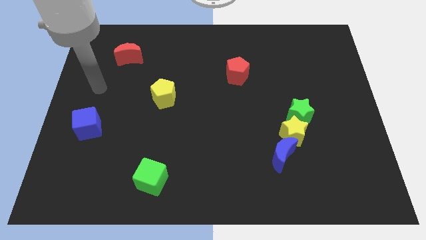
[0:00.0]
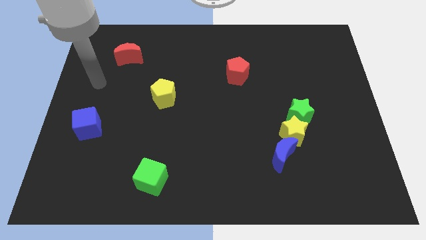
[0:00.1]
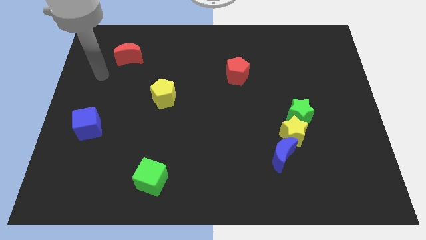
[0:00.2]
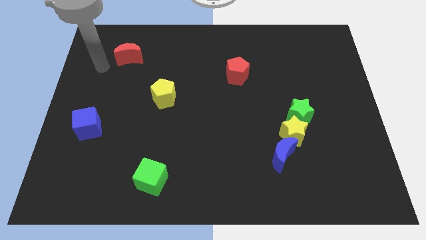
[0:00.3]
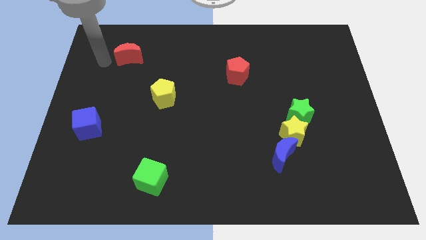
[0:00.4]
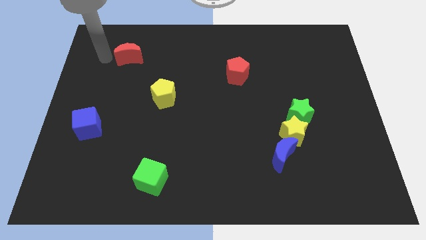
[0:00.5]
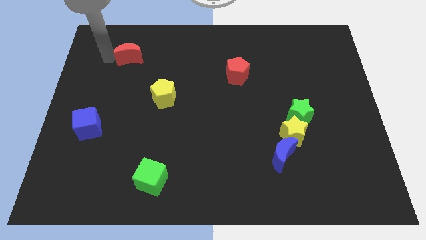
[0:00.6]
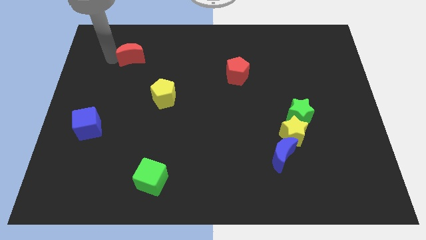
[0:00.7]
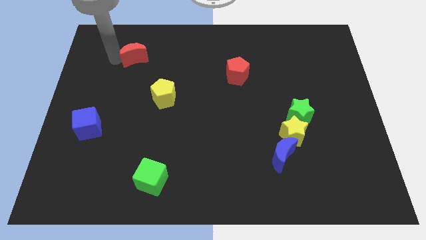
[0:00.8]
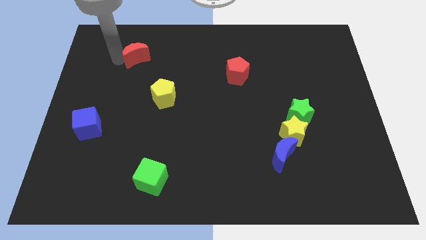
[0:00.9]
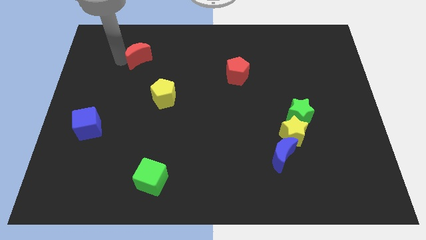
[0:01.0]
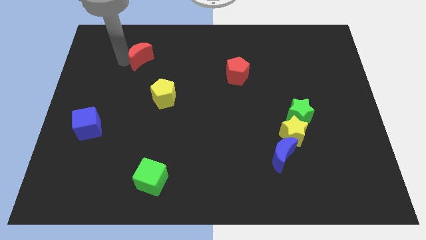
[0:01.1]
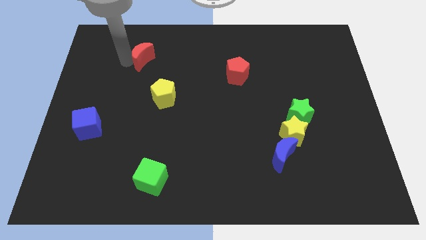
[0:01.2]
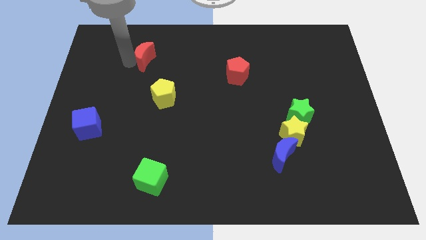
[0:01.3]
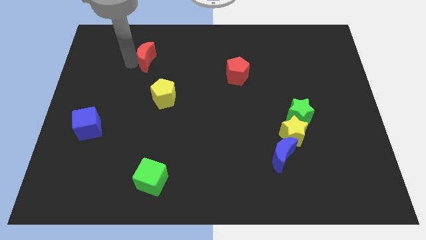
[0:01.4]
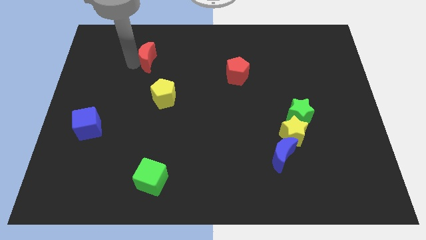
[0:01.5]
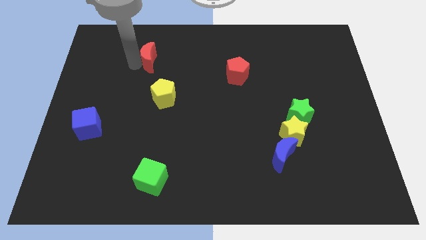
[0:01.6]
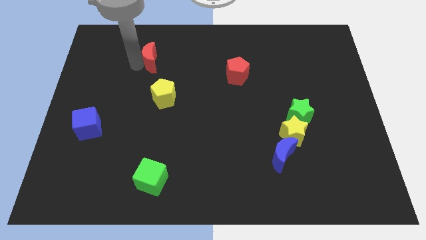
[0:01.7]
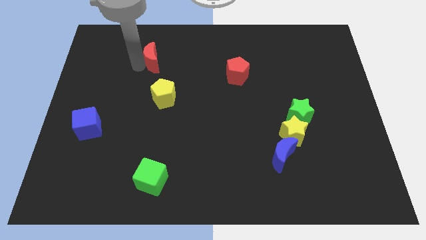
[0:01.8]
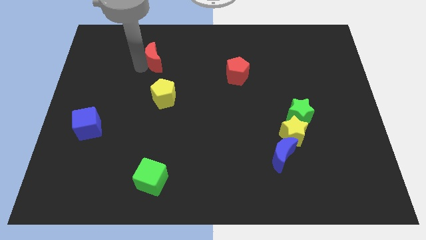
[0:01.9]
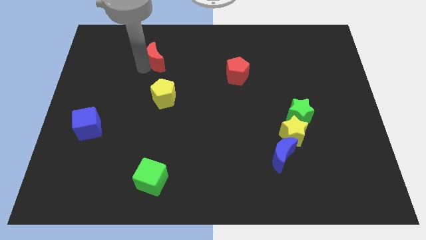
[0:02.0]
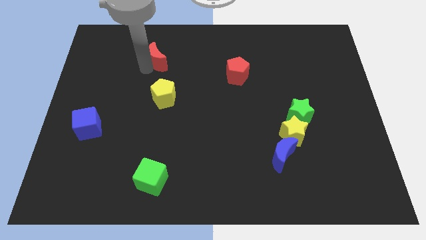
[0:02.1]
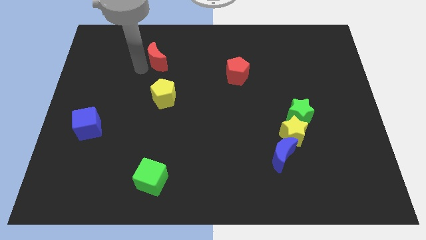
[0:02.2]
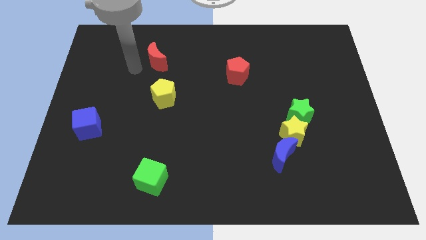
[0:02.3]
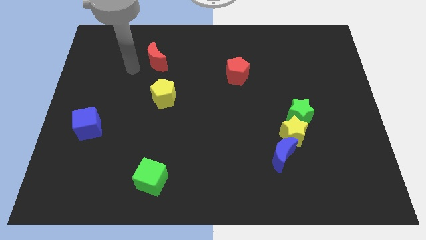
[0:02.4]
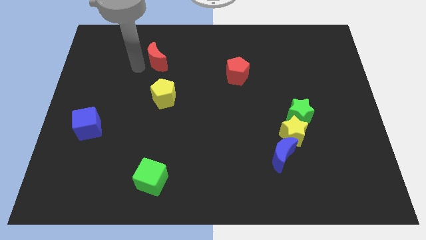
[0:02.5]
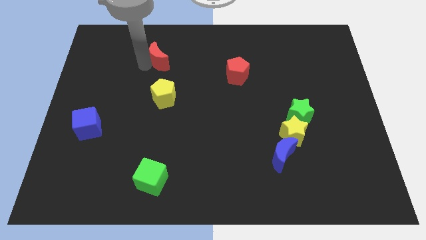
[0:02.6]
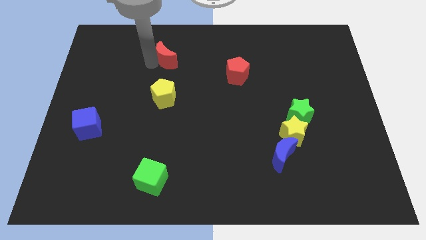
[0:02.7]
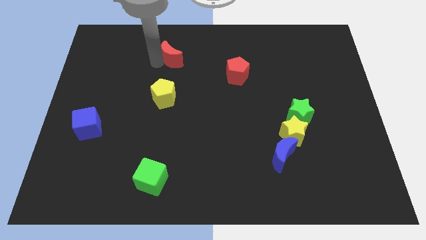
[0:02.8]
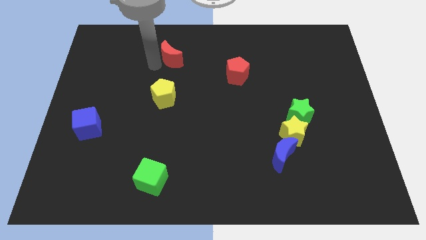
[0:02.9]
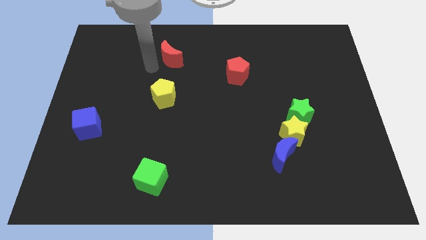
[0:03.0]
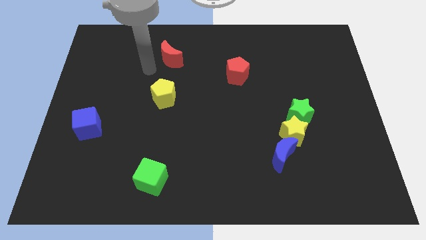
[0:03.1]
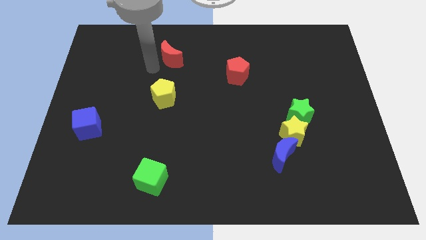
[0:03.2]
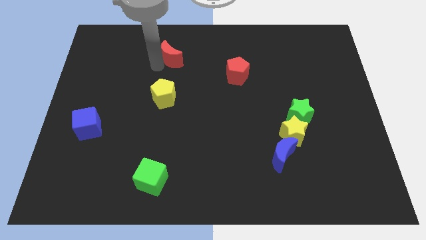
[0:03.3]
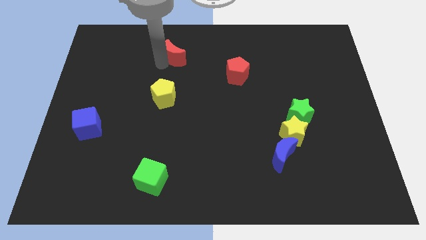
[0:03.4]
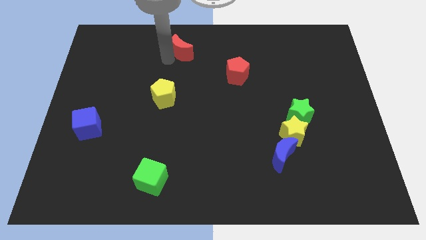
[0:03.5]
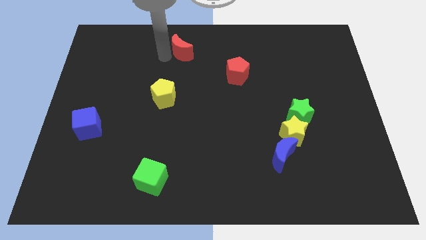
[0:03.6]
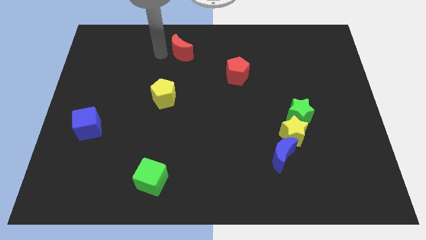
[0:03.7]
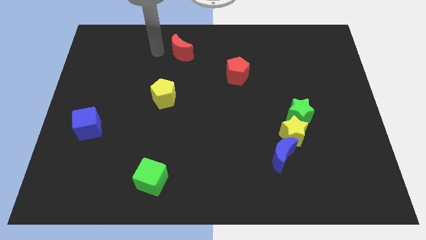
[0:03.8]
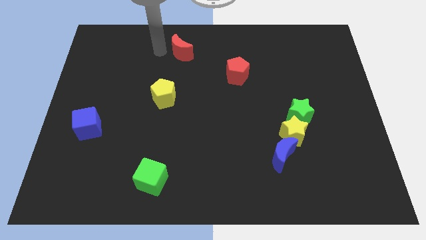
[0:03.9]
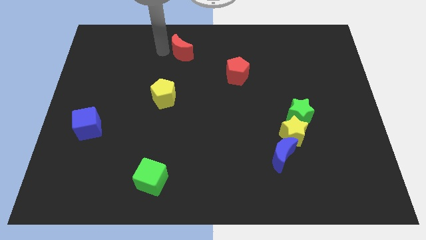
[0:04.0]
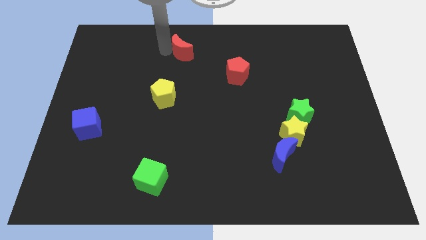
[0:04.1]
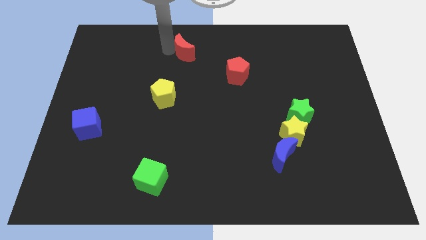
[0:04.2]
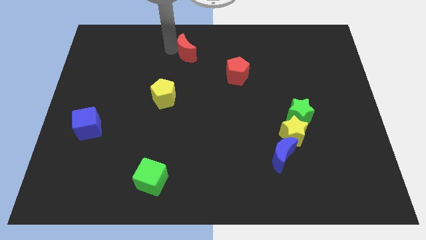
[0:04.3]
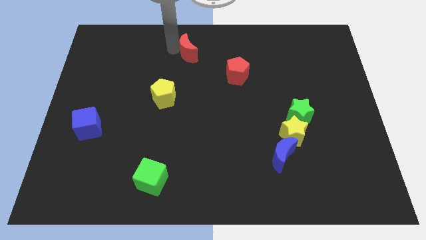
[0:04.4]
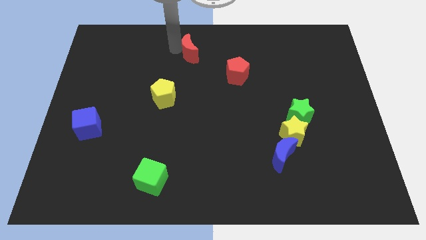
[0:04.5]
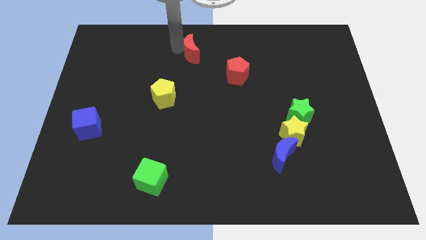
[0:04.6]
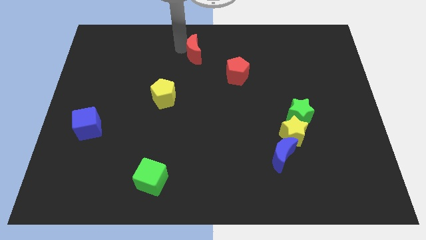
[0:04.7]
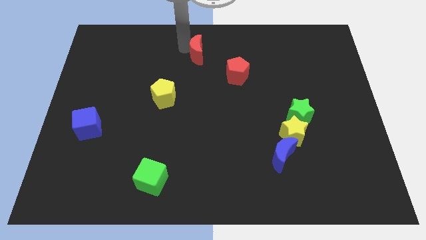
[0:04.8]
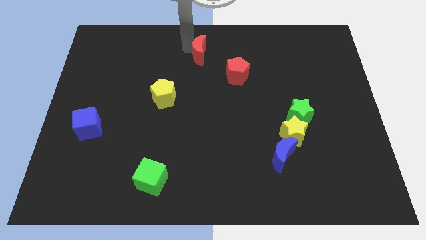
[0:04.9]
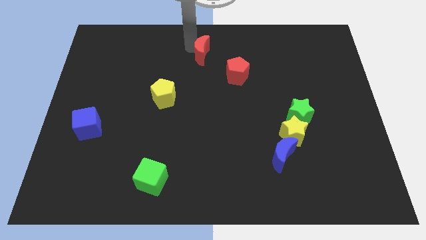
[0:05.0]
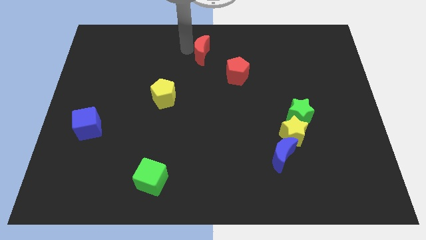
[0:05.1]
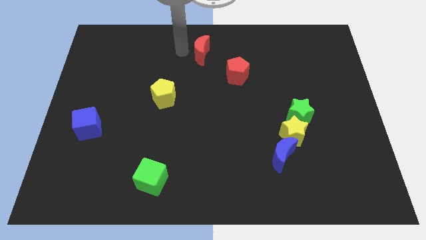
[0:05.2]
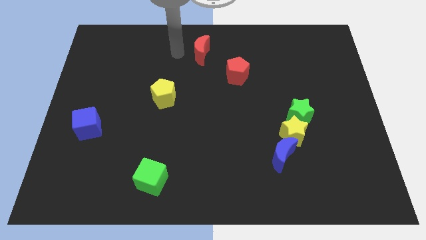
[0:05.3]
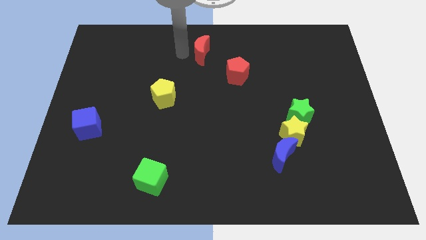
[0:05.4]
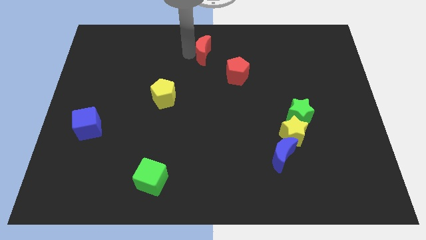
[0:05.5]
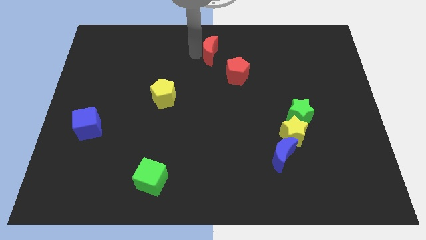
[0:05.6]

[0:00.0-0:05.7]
push the red moon right

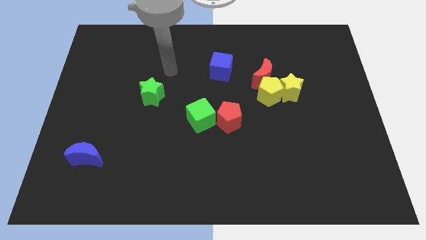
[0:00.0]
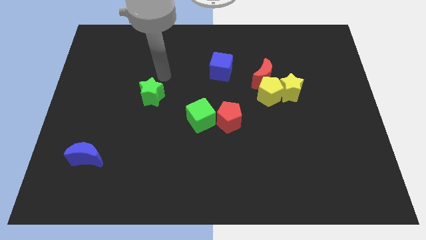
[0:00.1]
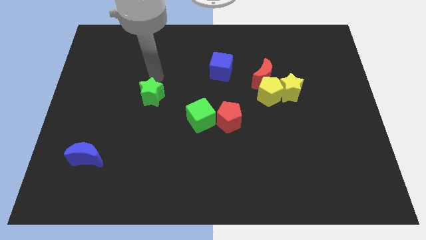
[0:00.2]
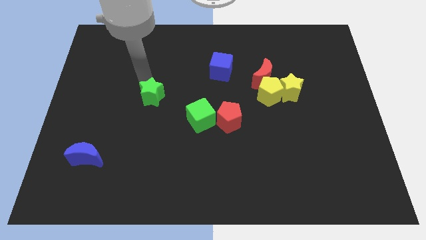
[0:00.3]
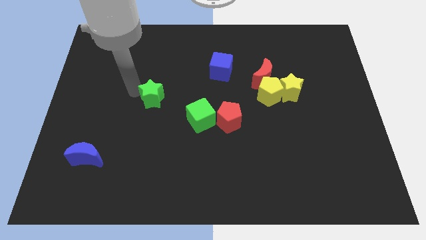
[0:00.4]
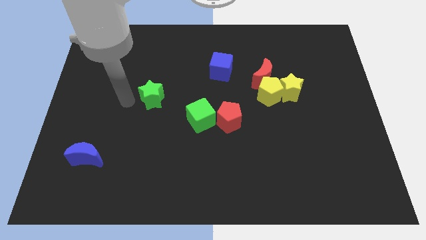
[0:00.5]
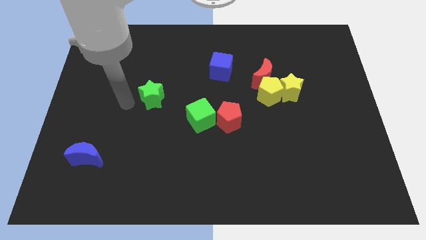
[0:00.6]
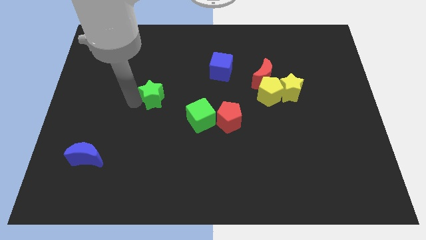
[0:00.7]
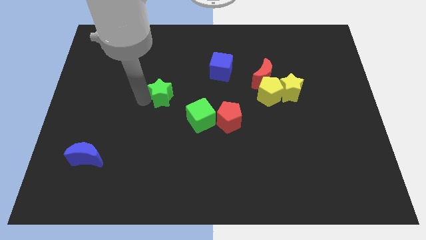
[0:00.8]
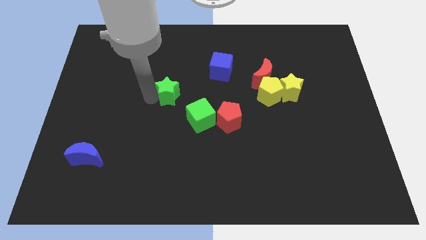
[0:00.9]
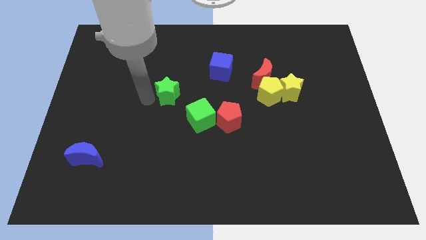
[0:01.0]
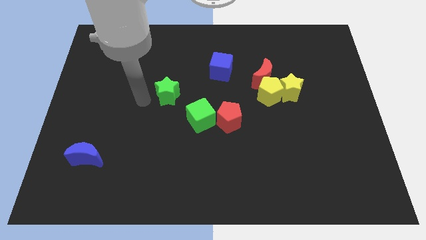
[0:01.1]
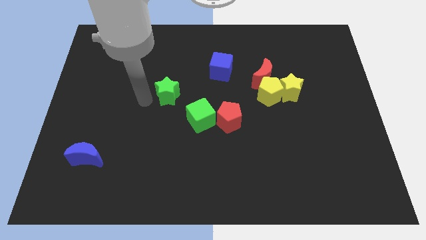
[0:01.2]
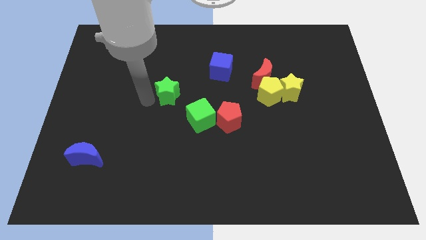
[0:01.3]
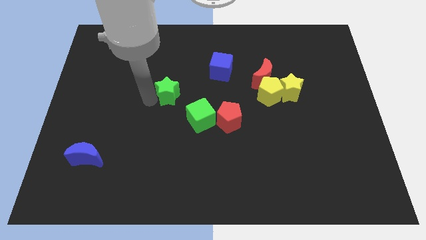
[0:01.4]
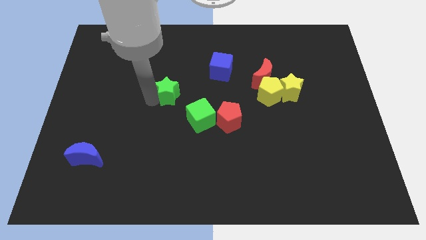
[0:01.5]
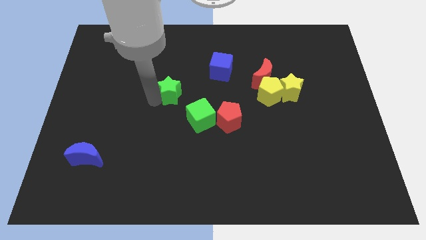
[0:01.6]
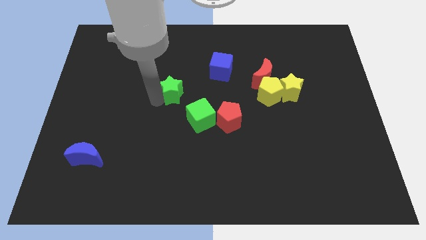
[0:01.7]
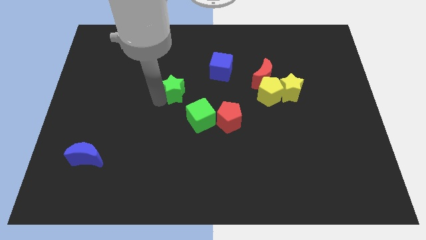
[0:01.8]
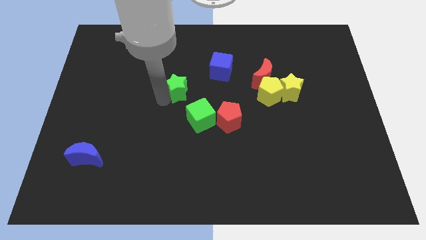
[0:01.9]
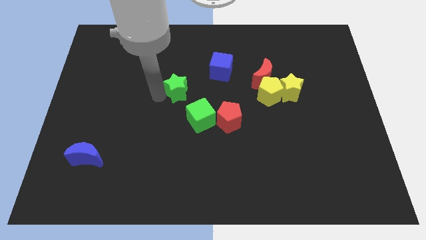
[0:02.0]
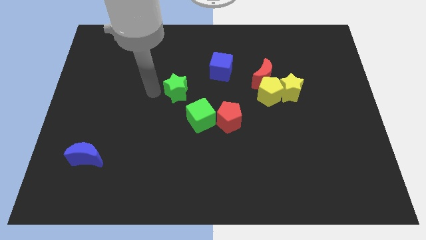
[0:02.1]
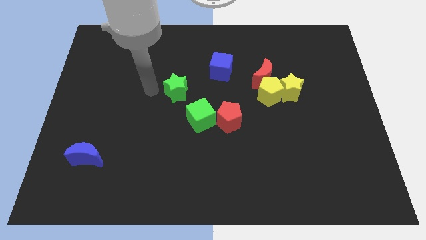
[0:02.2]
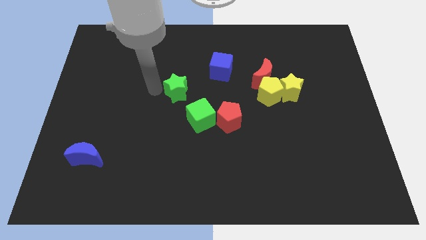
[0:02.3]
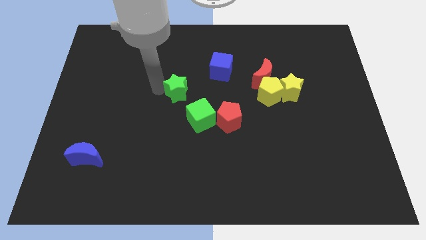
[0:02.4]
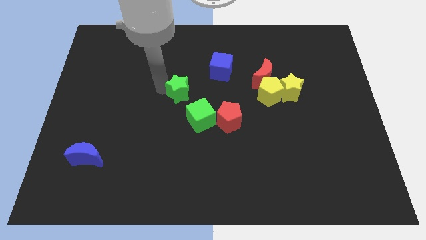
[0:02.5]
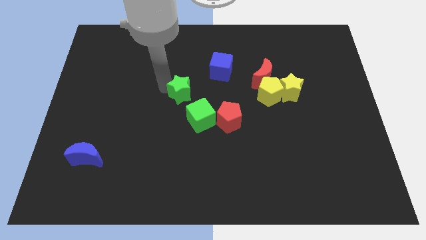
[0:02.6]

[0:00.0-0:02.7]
slide the green star to the right a little bit
